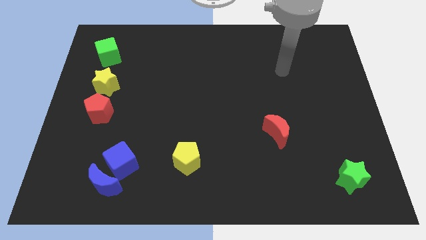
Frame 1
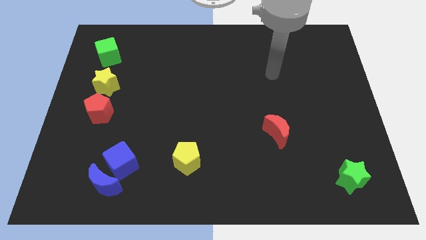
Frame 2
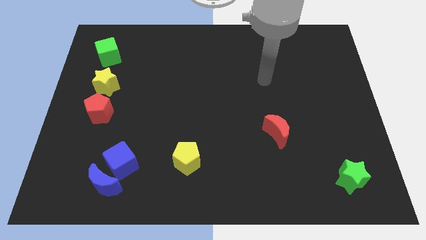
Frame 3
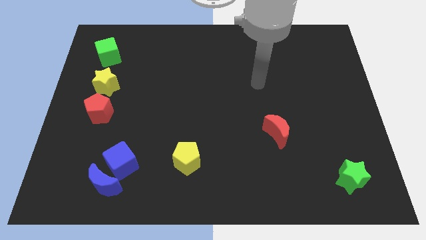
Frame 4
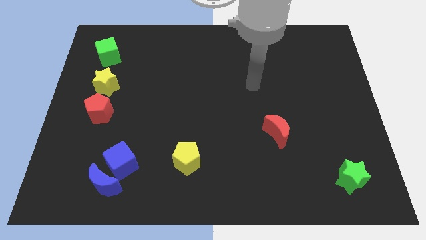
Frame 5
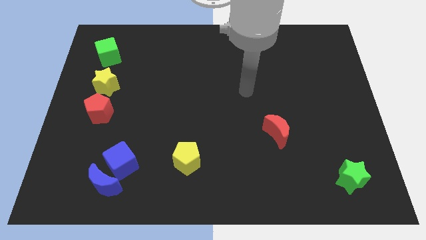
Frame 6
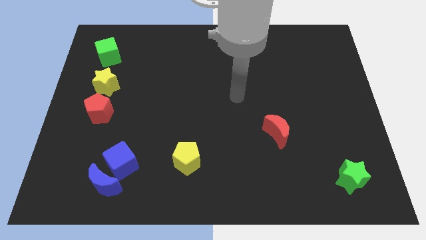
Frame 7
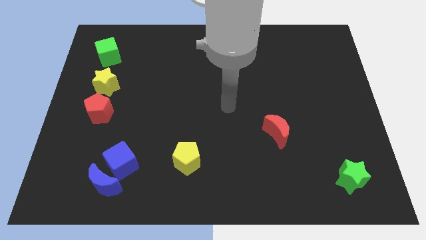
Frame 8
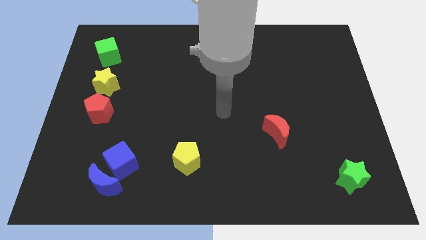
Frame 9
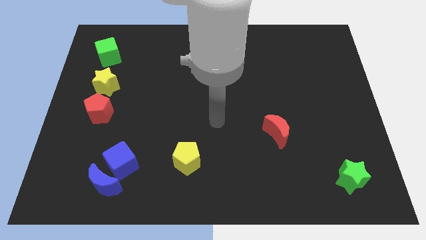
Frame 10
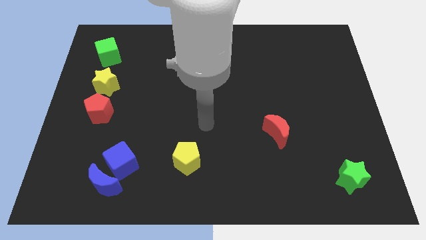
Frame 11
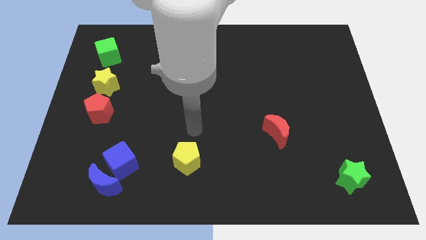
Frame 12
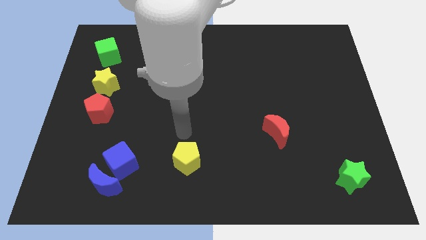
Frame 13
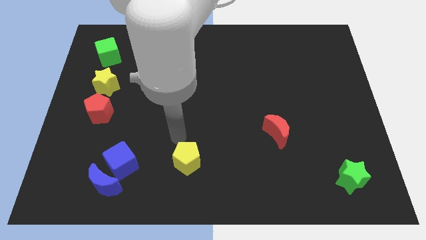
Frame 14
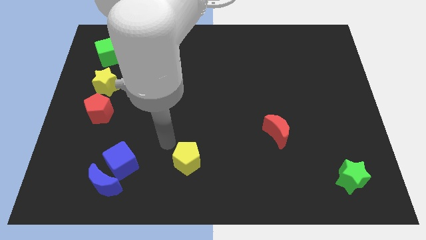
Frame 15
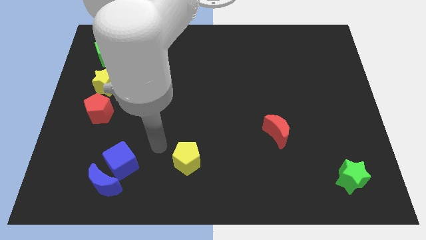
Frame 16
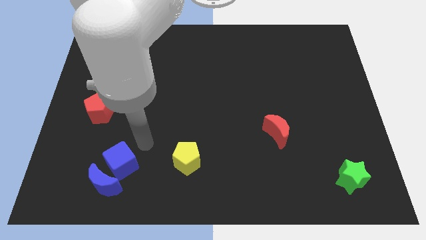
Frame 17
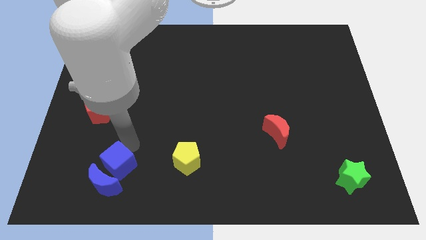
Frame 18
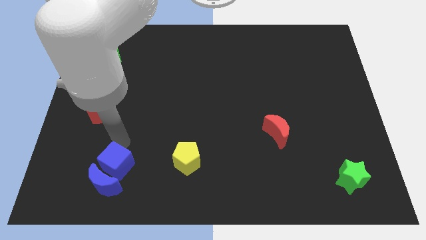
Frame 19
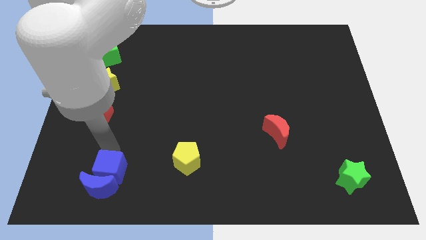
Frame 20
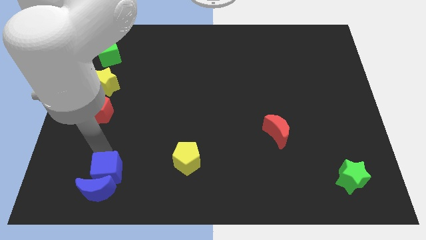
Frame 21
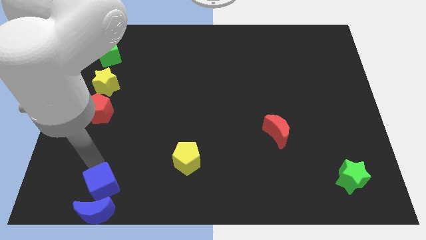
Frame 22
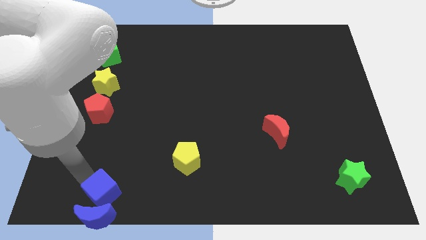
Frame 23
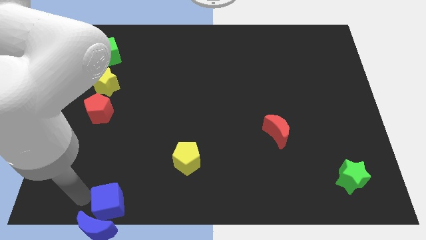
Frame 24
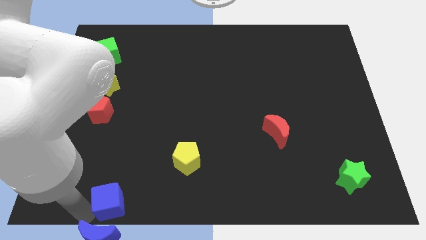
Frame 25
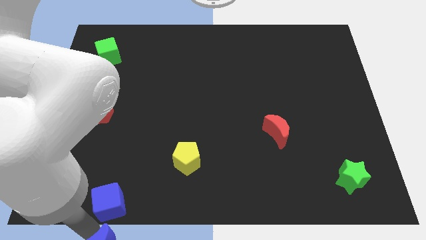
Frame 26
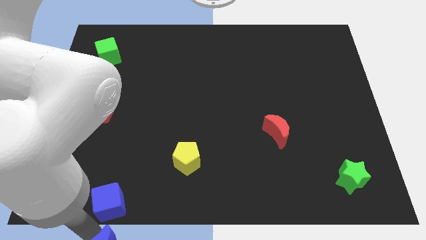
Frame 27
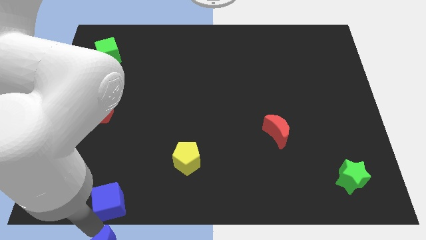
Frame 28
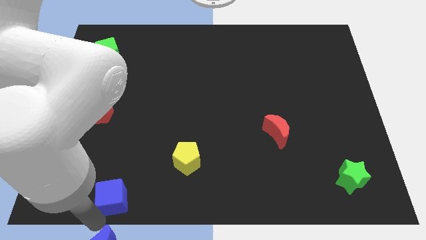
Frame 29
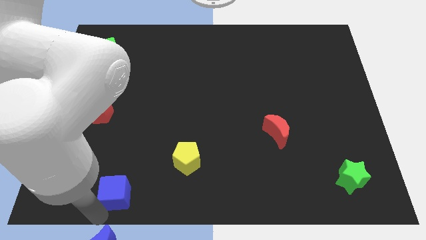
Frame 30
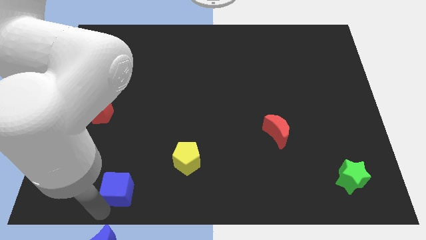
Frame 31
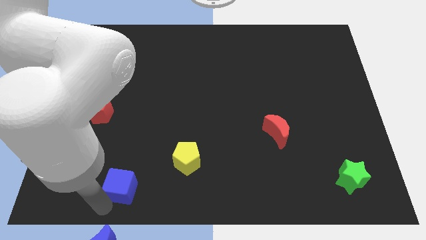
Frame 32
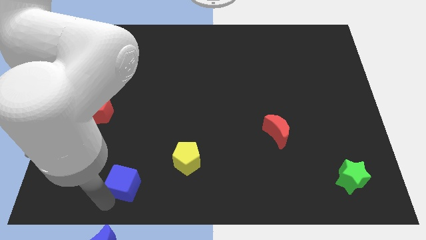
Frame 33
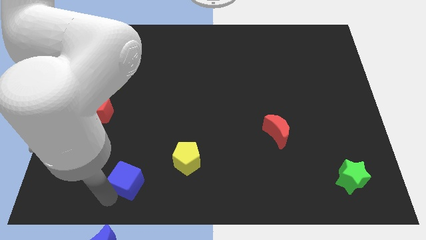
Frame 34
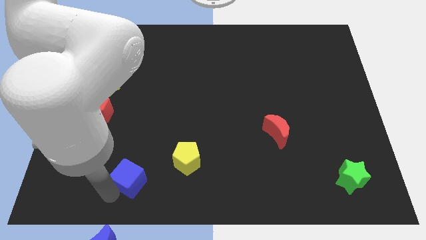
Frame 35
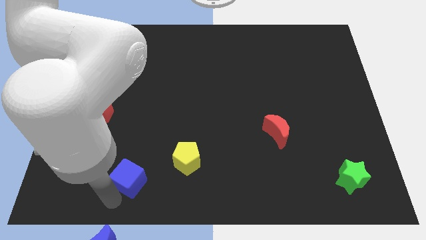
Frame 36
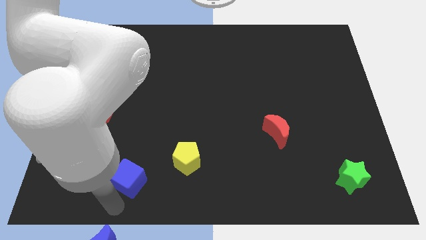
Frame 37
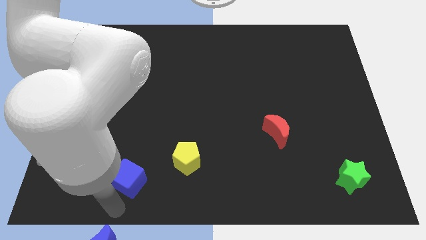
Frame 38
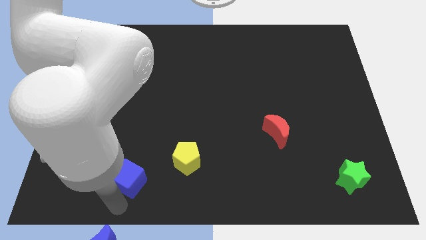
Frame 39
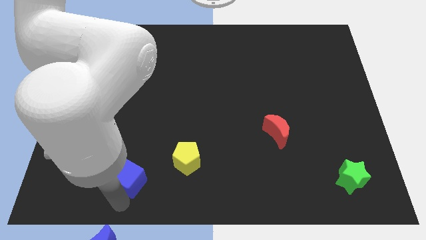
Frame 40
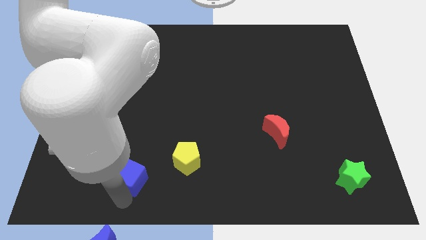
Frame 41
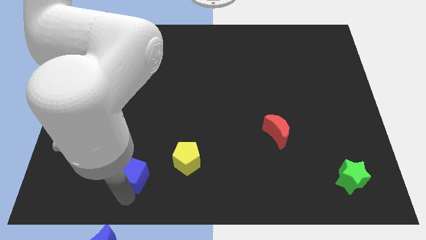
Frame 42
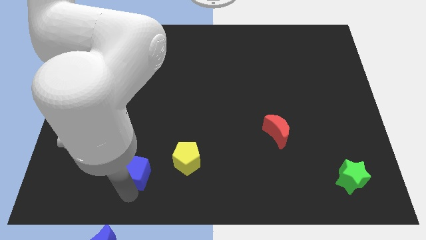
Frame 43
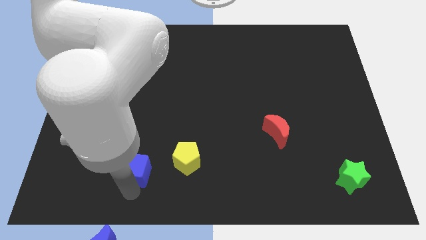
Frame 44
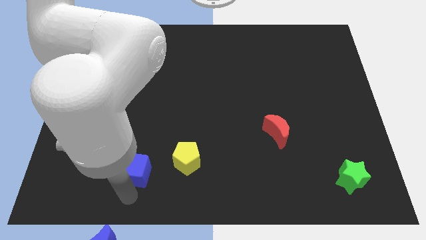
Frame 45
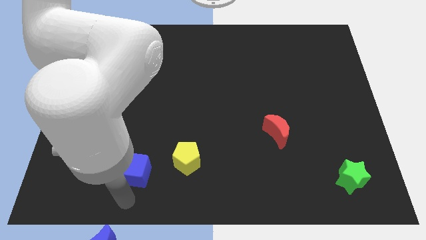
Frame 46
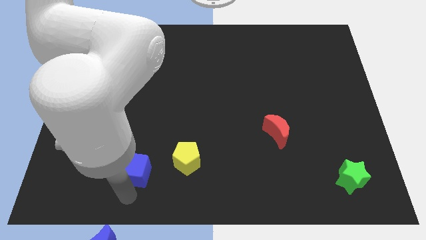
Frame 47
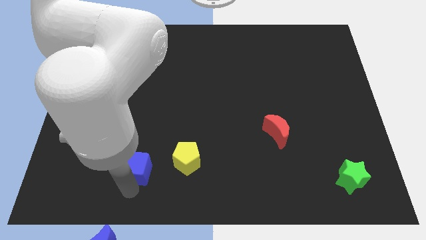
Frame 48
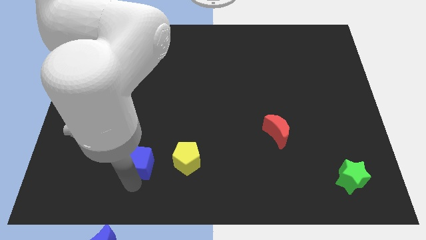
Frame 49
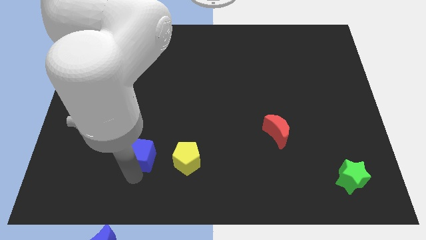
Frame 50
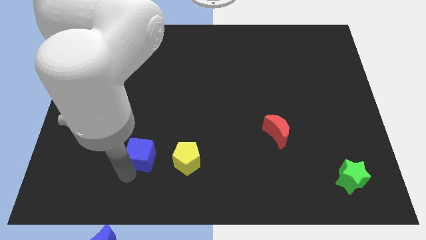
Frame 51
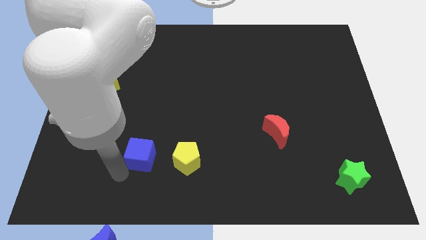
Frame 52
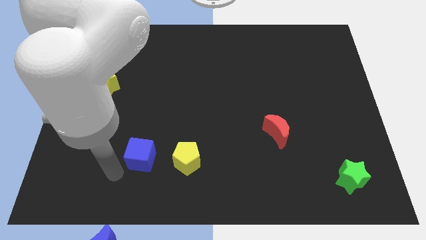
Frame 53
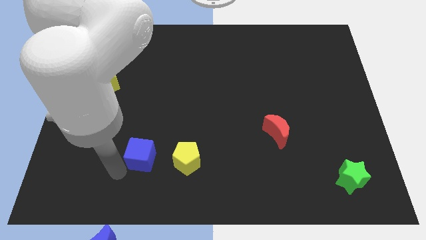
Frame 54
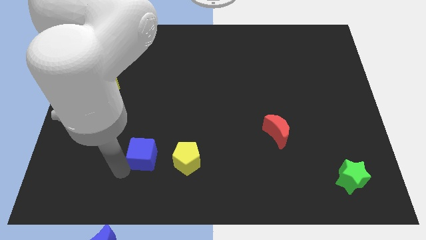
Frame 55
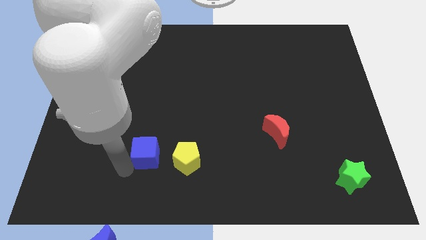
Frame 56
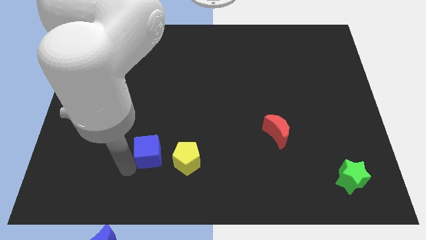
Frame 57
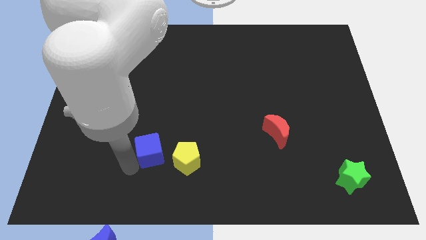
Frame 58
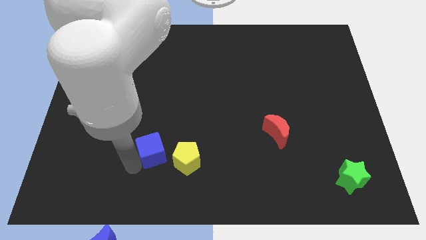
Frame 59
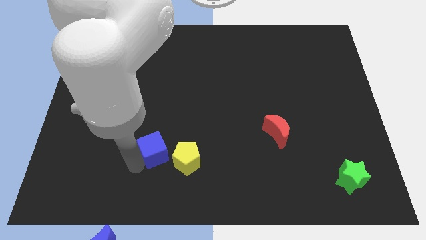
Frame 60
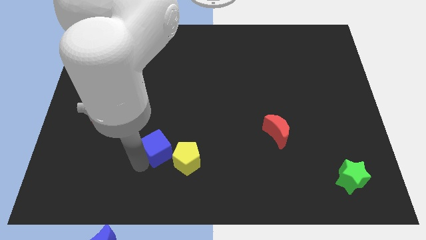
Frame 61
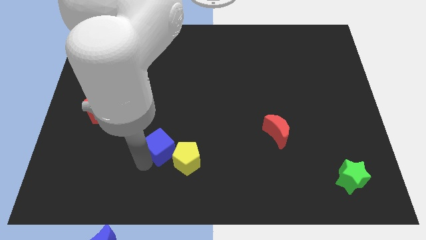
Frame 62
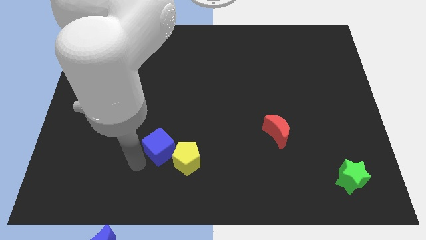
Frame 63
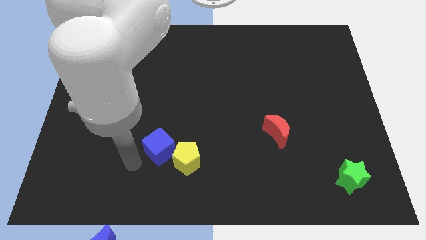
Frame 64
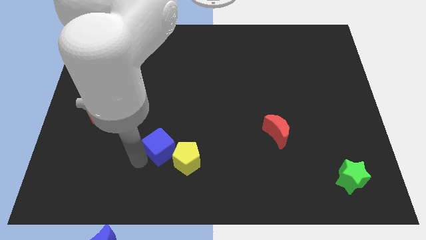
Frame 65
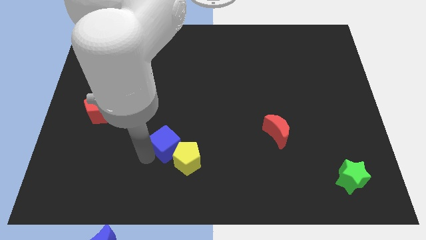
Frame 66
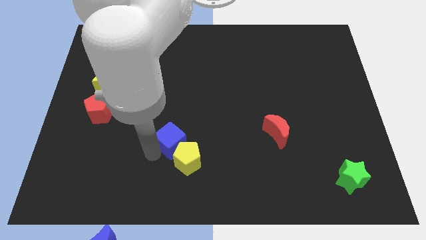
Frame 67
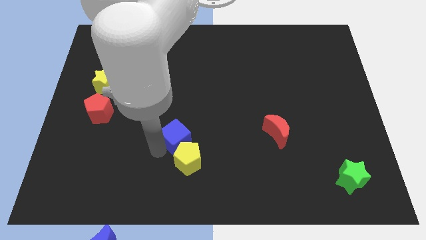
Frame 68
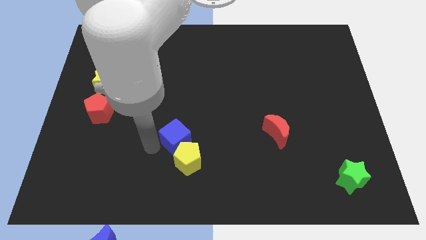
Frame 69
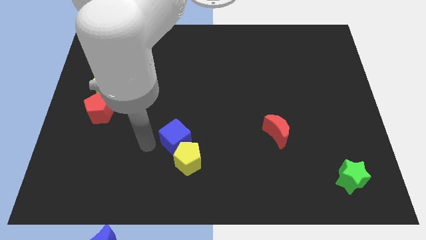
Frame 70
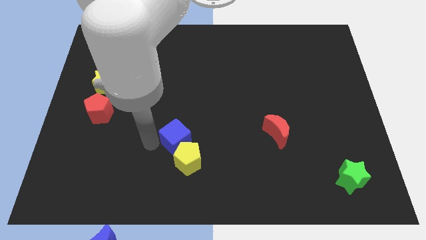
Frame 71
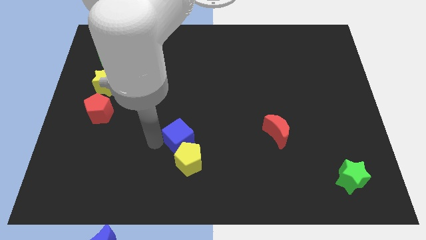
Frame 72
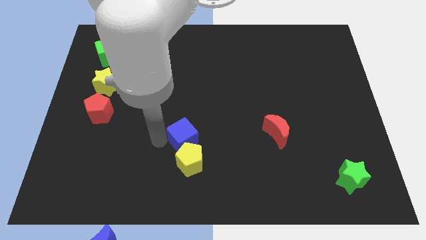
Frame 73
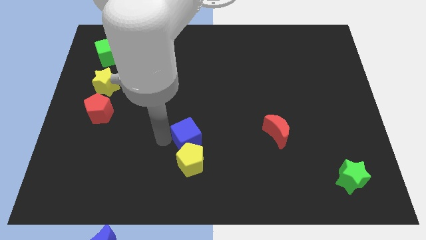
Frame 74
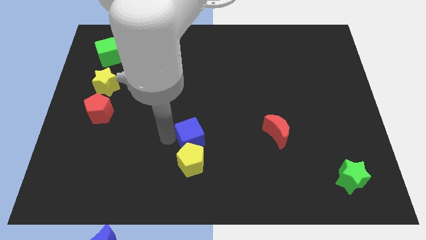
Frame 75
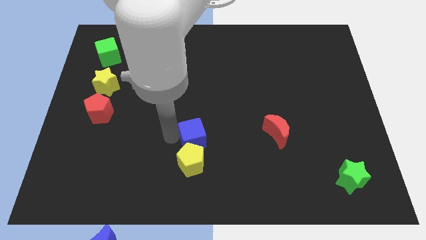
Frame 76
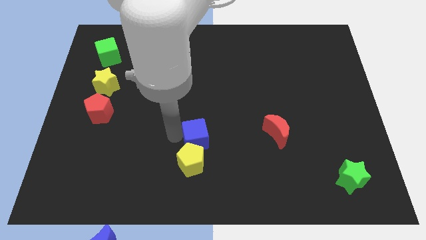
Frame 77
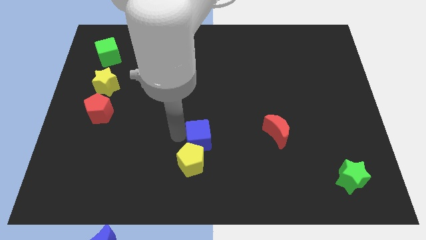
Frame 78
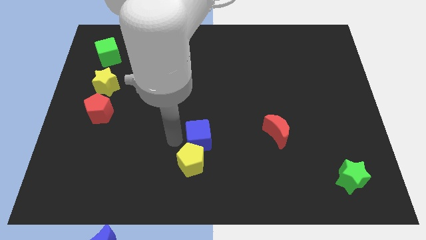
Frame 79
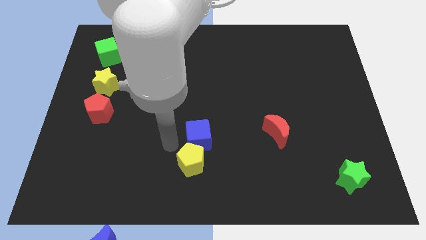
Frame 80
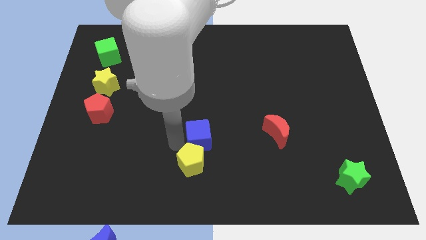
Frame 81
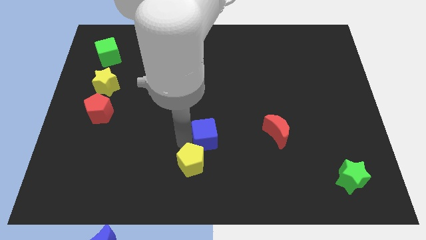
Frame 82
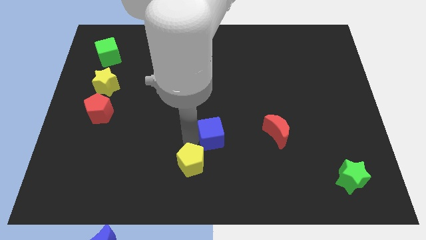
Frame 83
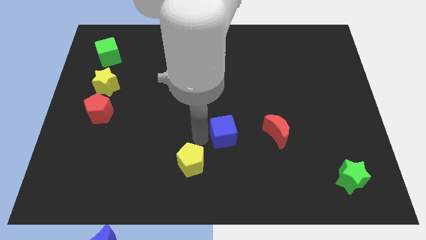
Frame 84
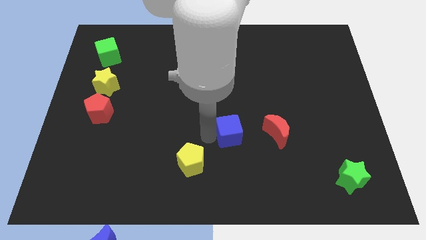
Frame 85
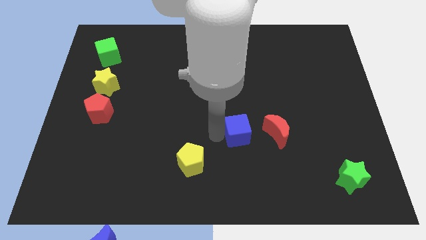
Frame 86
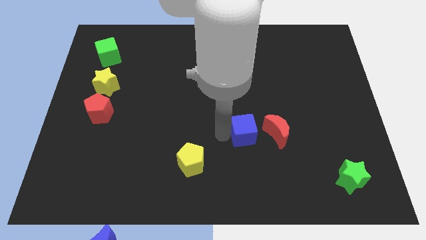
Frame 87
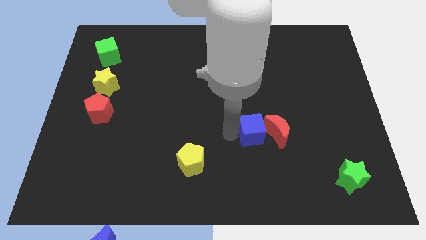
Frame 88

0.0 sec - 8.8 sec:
push the blue cube towards the red moon
